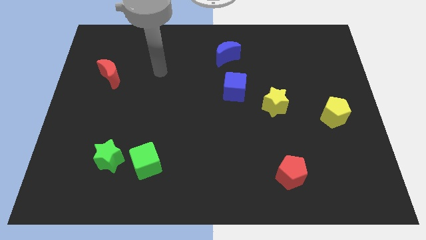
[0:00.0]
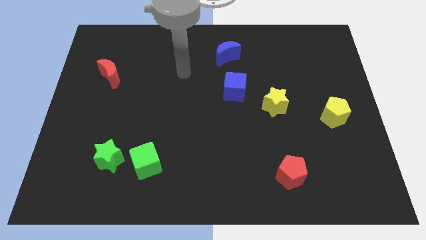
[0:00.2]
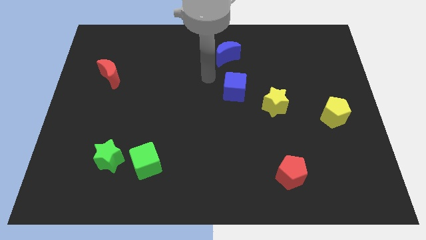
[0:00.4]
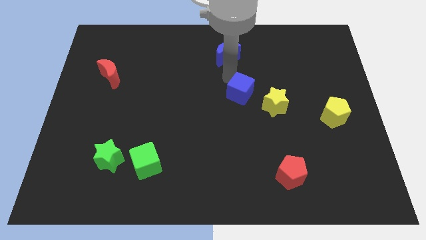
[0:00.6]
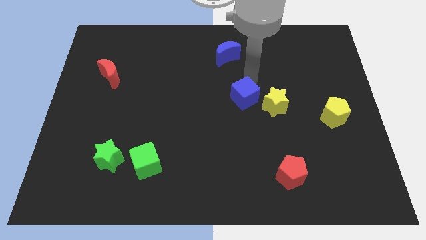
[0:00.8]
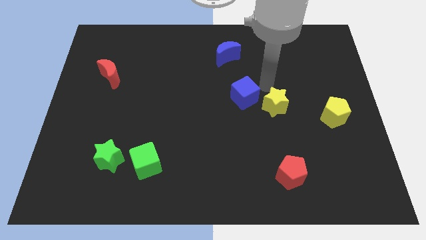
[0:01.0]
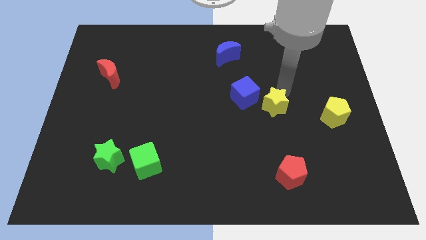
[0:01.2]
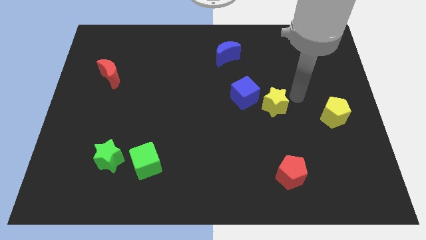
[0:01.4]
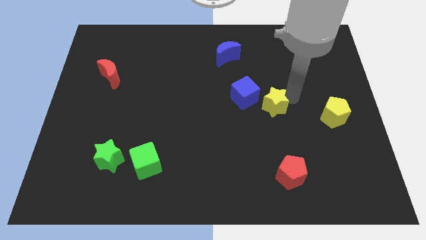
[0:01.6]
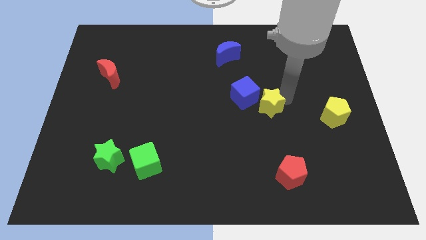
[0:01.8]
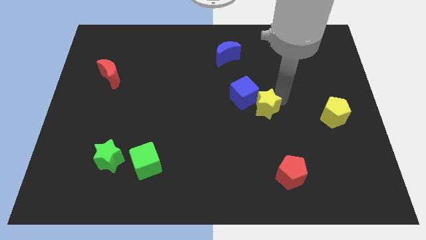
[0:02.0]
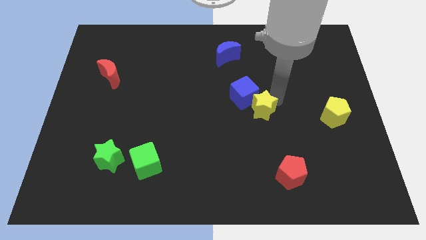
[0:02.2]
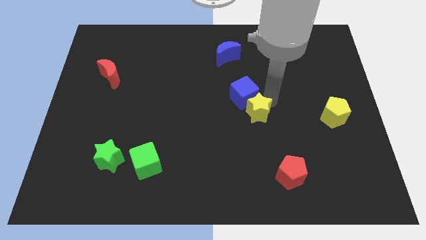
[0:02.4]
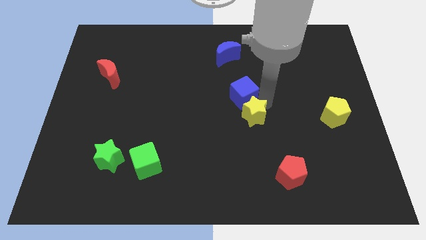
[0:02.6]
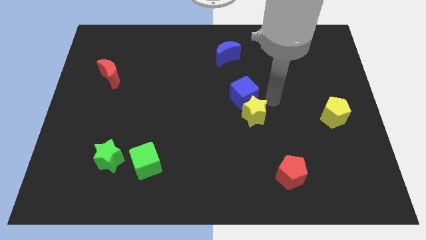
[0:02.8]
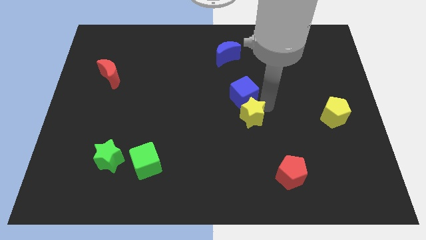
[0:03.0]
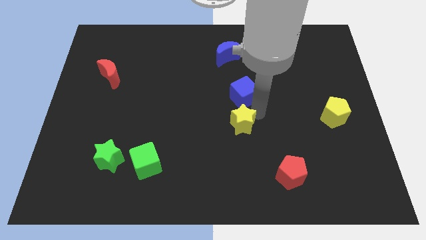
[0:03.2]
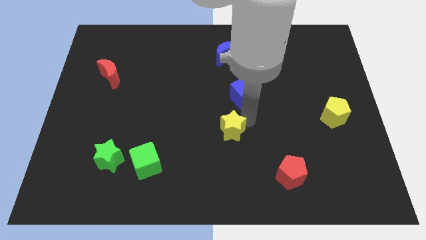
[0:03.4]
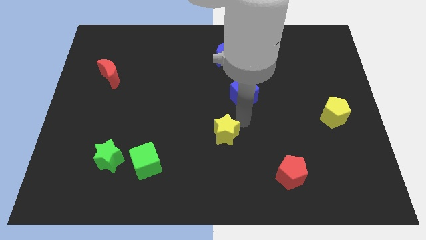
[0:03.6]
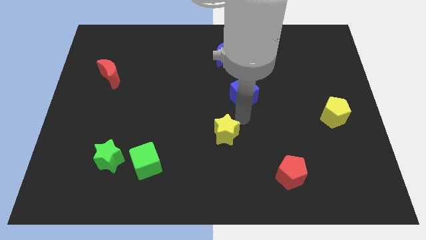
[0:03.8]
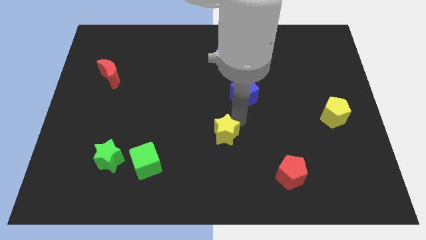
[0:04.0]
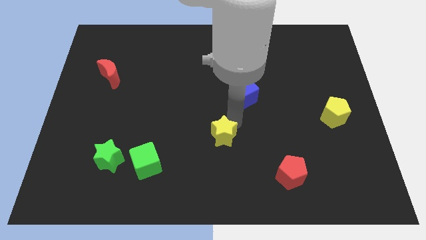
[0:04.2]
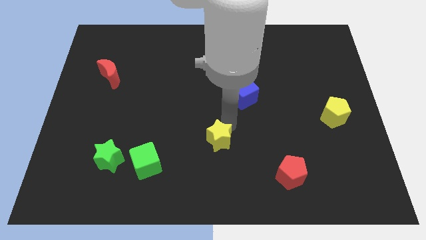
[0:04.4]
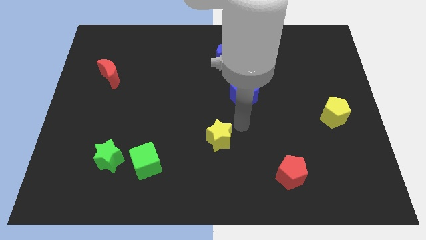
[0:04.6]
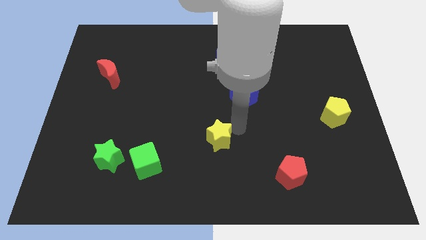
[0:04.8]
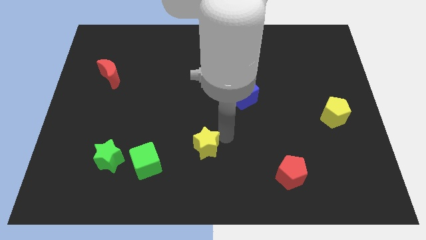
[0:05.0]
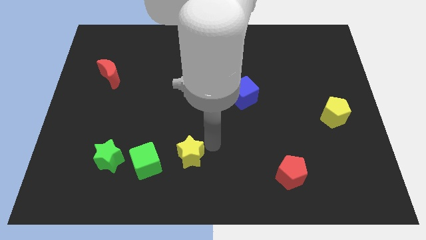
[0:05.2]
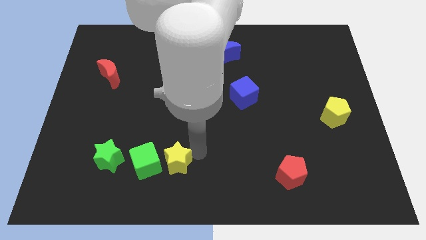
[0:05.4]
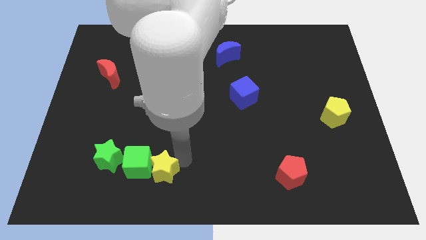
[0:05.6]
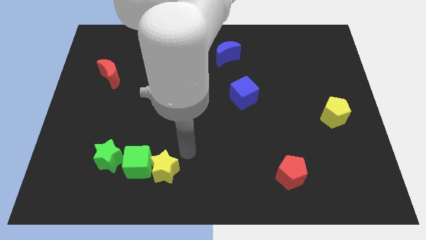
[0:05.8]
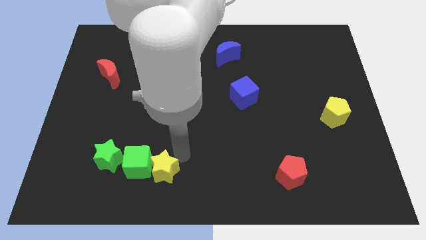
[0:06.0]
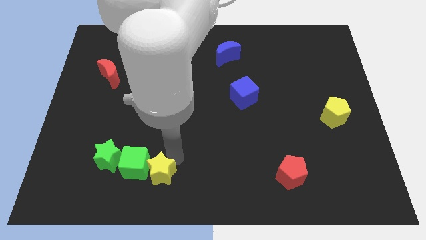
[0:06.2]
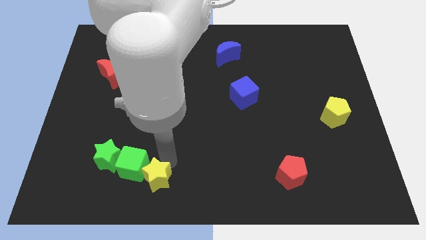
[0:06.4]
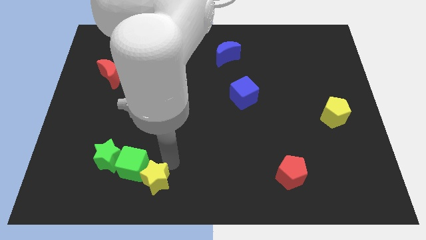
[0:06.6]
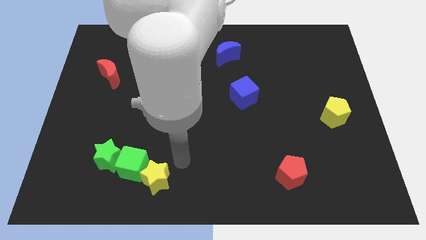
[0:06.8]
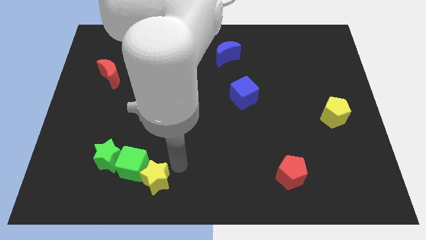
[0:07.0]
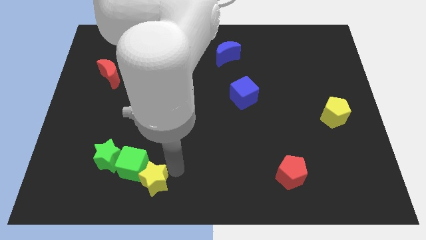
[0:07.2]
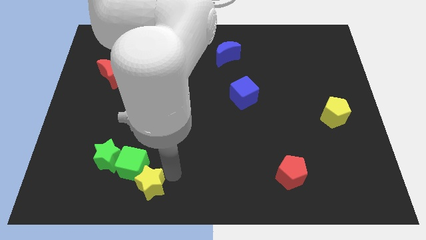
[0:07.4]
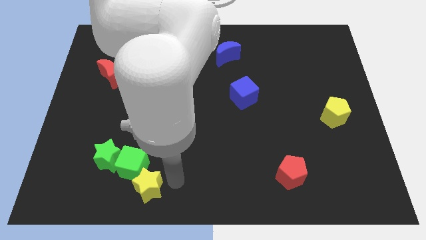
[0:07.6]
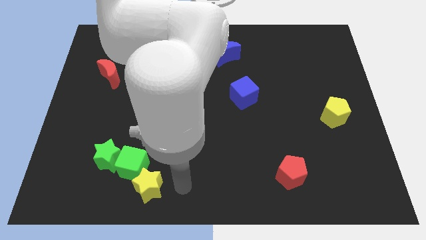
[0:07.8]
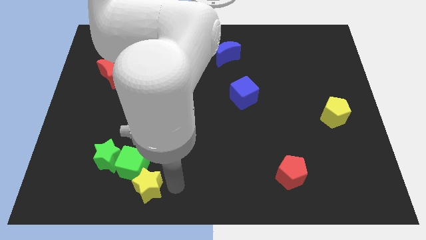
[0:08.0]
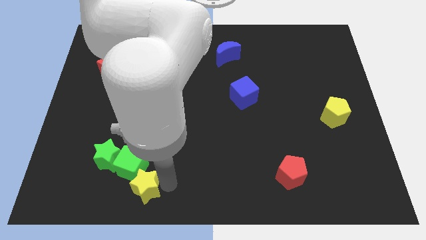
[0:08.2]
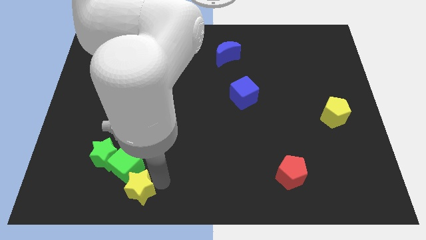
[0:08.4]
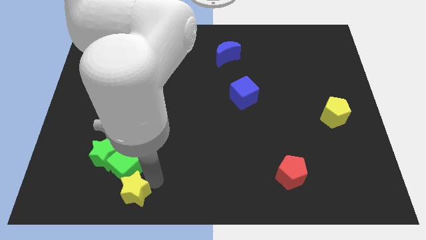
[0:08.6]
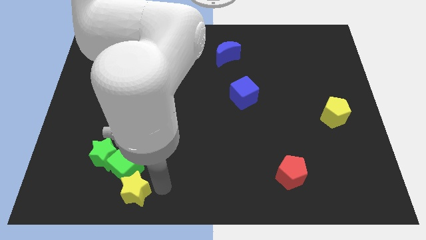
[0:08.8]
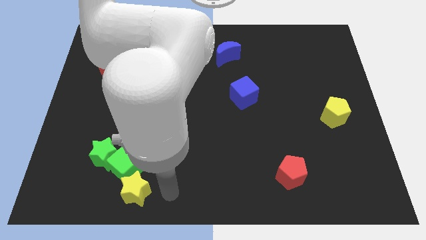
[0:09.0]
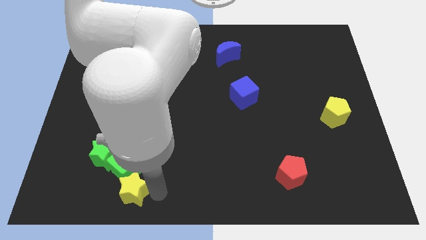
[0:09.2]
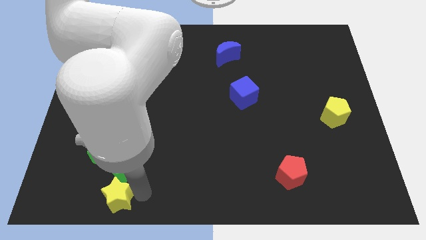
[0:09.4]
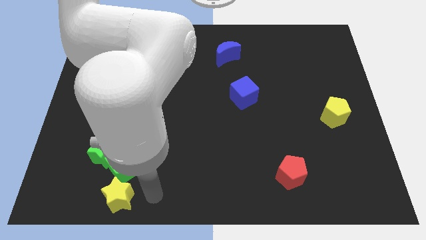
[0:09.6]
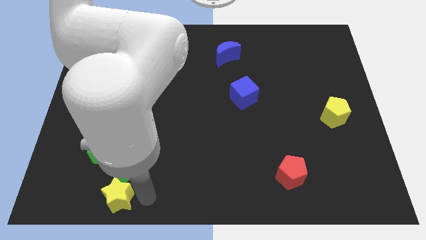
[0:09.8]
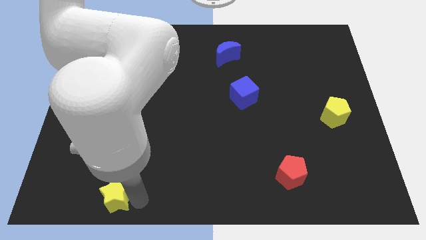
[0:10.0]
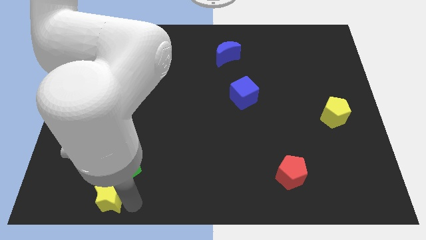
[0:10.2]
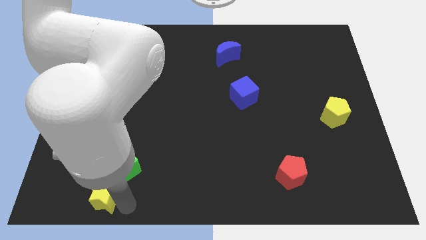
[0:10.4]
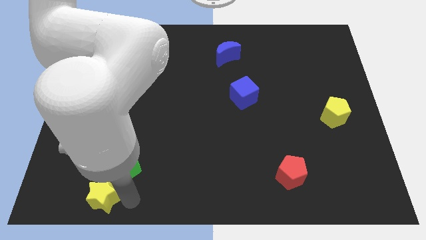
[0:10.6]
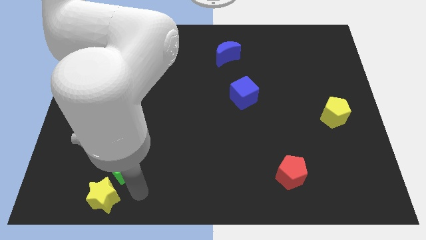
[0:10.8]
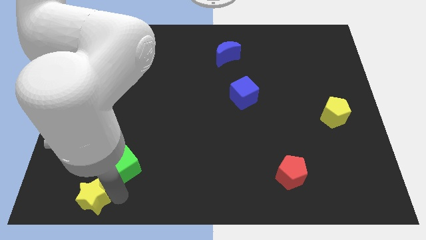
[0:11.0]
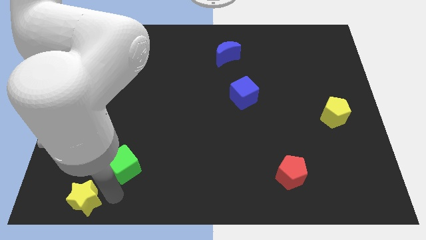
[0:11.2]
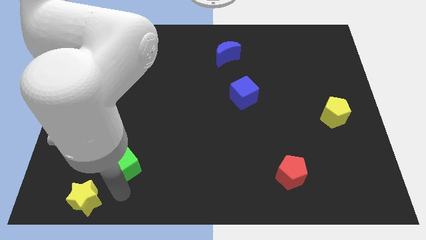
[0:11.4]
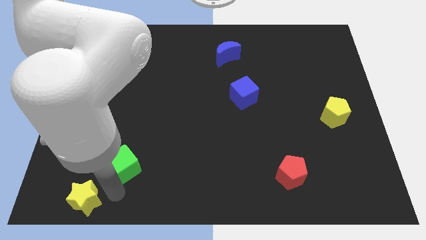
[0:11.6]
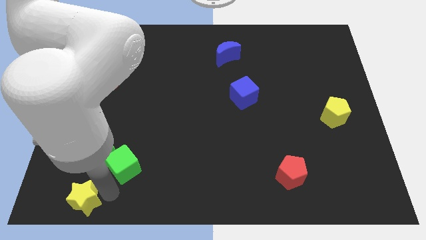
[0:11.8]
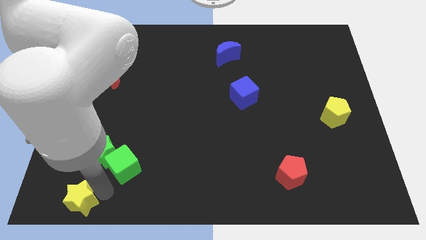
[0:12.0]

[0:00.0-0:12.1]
push the yellow star to the bottom left corner
